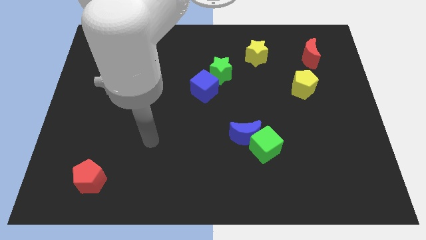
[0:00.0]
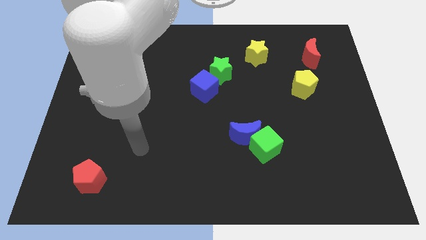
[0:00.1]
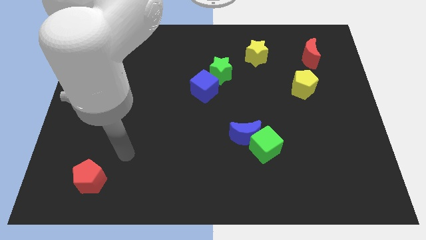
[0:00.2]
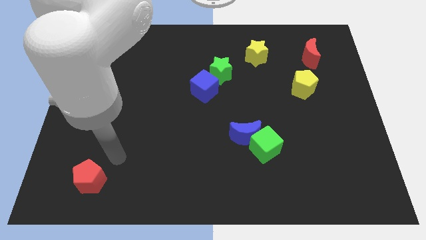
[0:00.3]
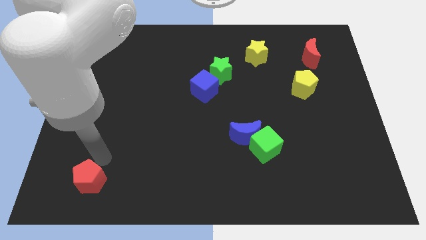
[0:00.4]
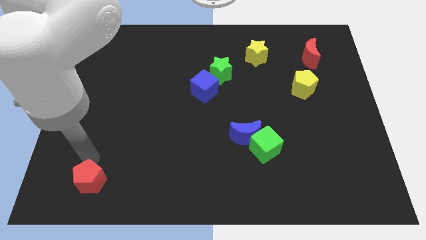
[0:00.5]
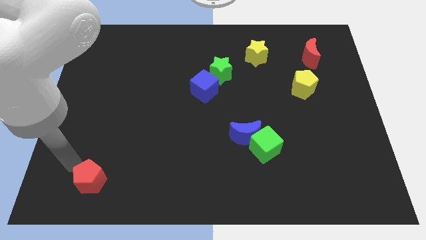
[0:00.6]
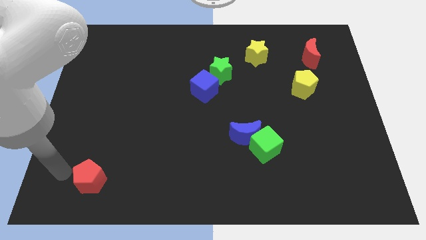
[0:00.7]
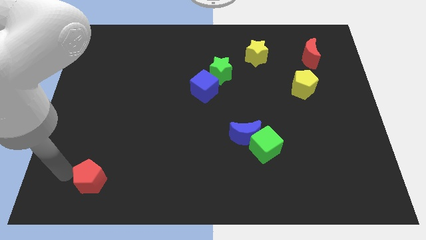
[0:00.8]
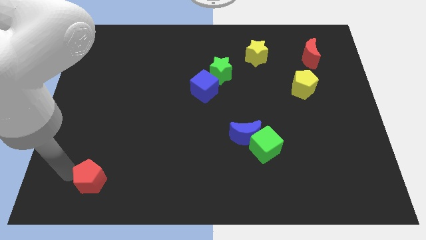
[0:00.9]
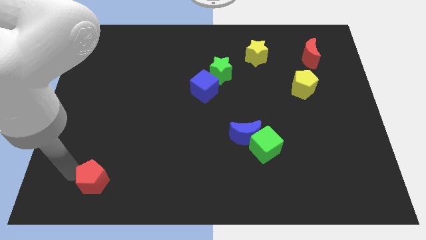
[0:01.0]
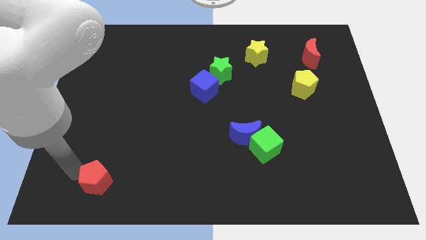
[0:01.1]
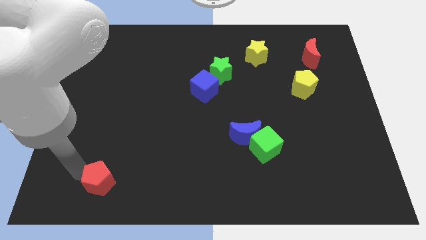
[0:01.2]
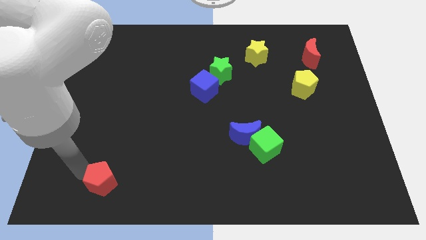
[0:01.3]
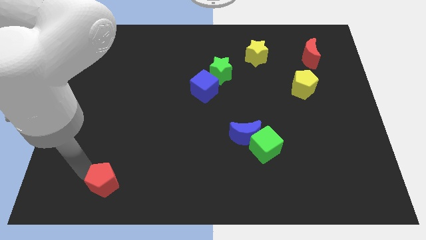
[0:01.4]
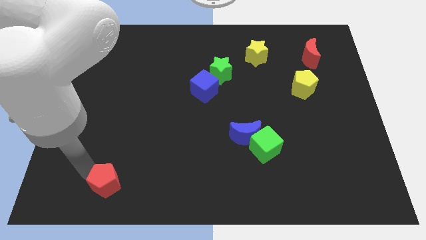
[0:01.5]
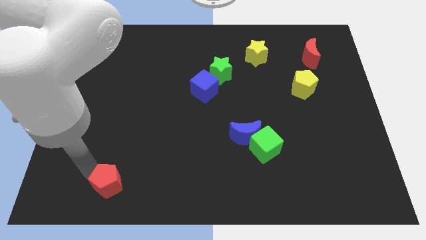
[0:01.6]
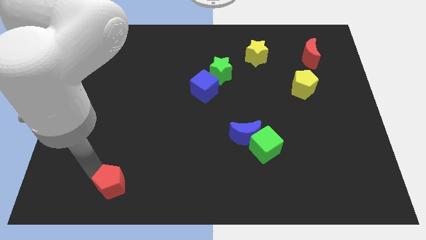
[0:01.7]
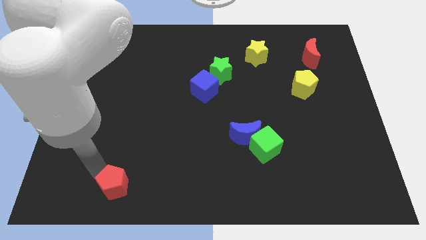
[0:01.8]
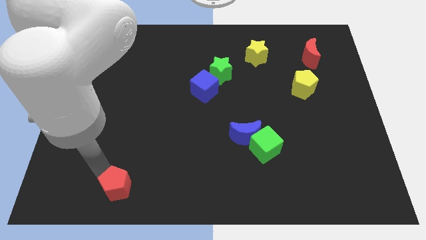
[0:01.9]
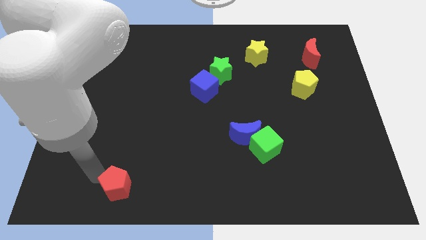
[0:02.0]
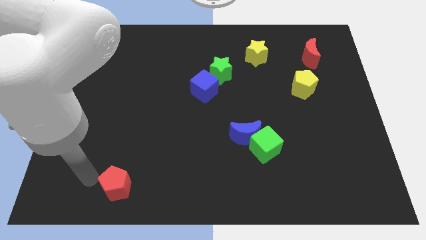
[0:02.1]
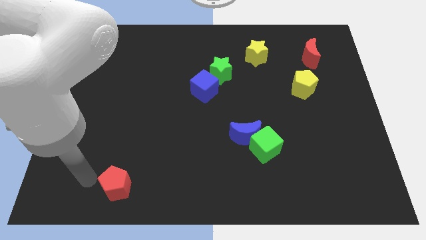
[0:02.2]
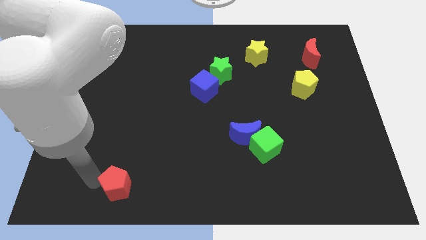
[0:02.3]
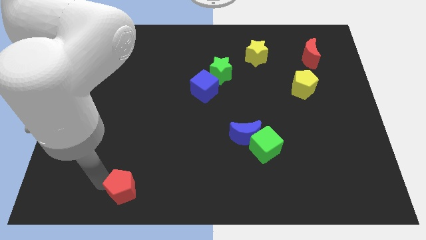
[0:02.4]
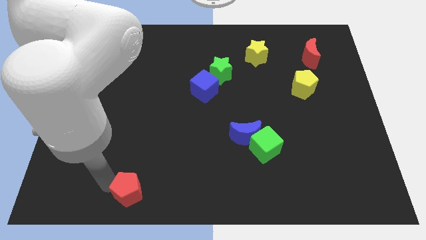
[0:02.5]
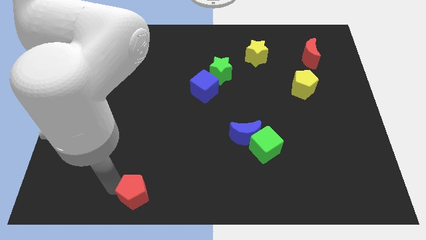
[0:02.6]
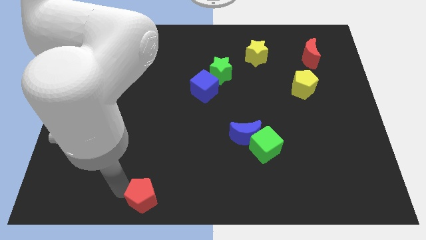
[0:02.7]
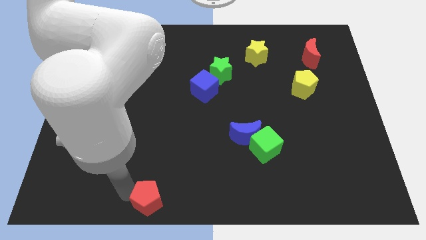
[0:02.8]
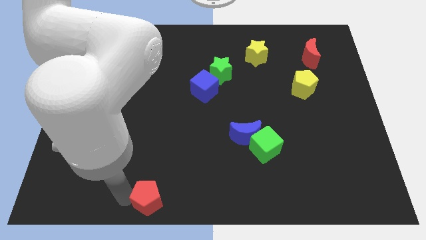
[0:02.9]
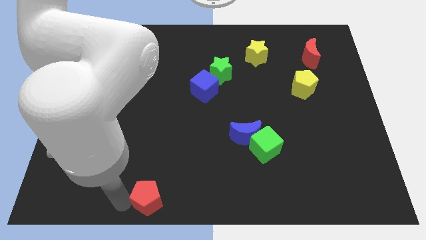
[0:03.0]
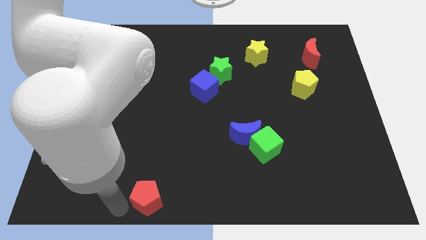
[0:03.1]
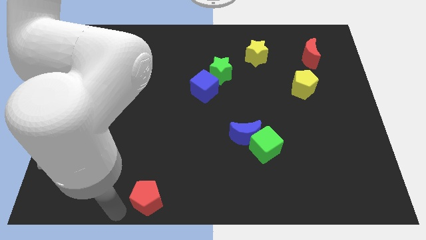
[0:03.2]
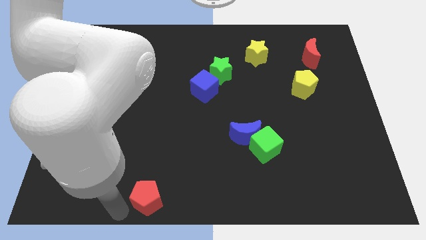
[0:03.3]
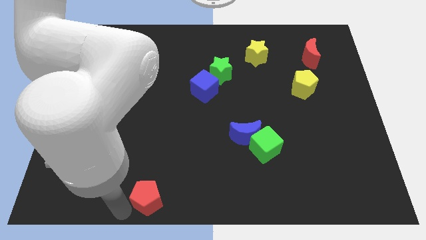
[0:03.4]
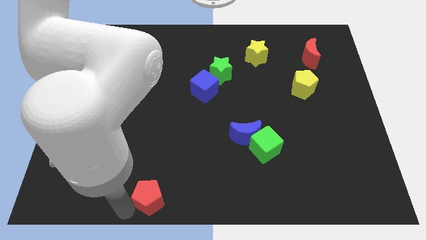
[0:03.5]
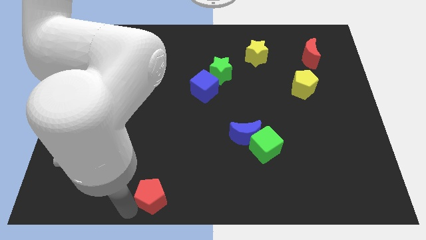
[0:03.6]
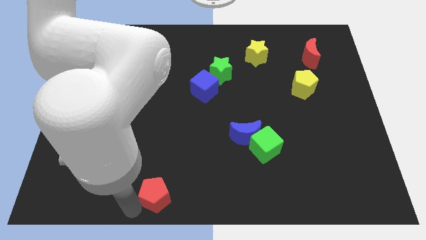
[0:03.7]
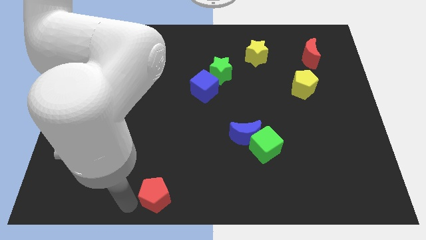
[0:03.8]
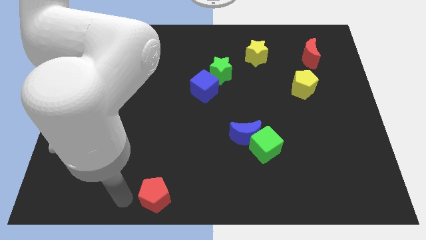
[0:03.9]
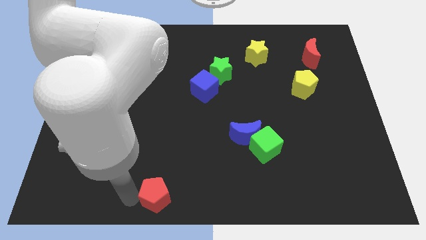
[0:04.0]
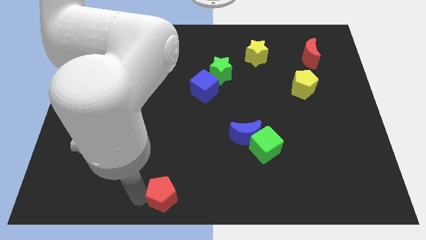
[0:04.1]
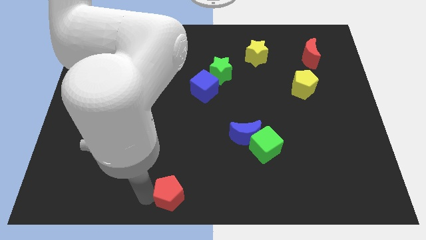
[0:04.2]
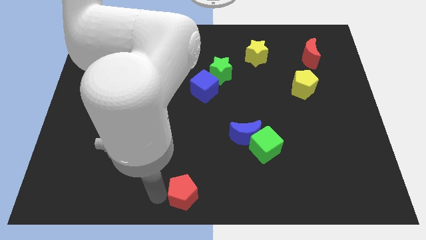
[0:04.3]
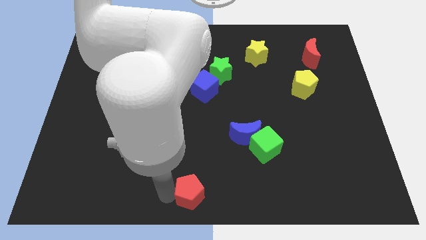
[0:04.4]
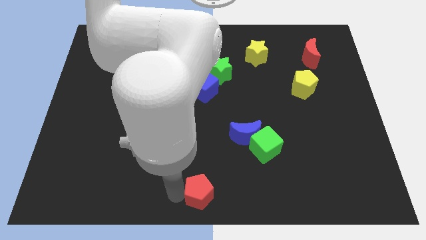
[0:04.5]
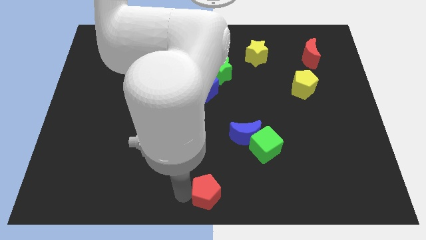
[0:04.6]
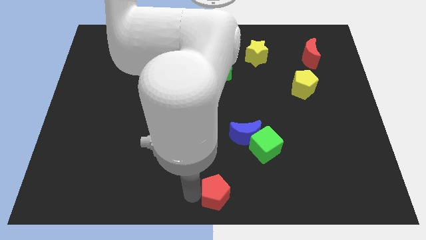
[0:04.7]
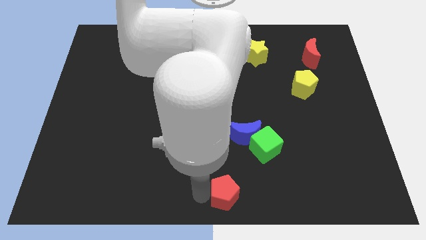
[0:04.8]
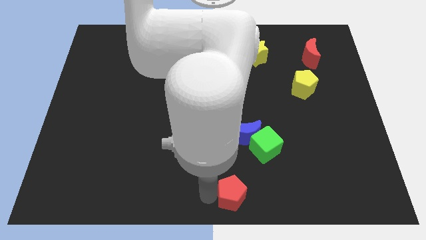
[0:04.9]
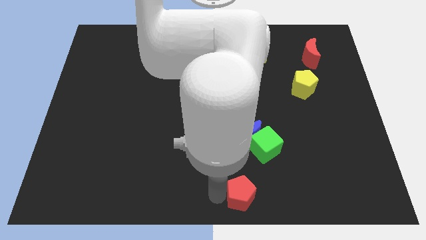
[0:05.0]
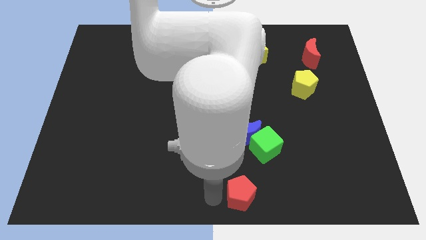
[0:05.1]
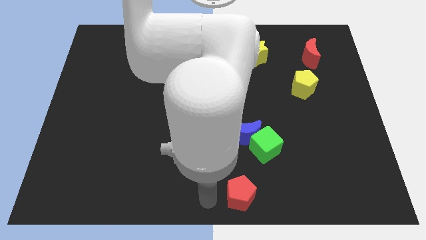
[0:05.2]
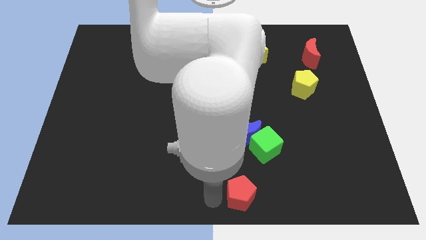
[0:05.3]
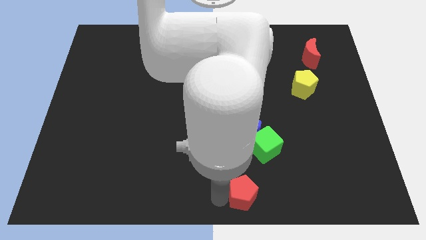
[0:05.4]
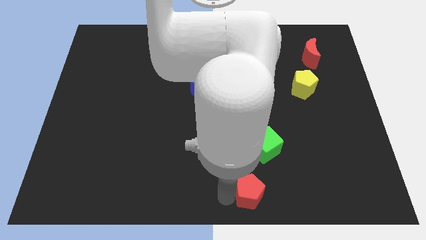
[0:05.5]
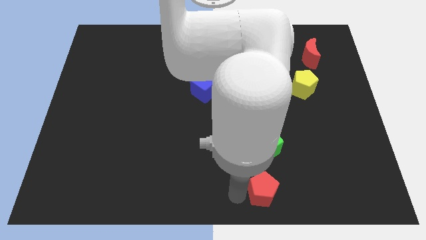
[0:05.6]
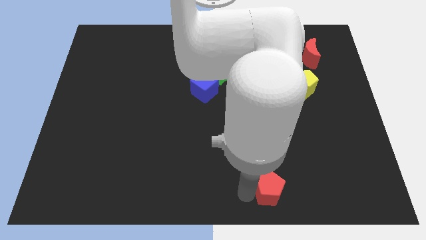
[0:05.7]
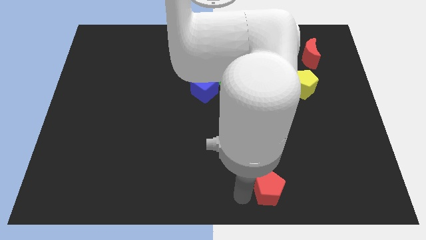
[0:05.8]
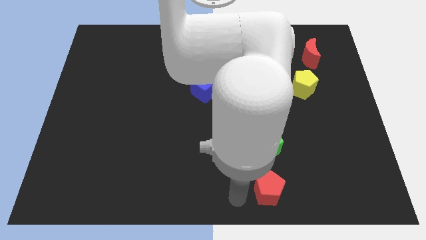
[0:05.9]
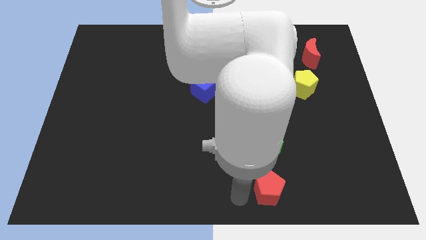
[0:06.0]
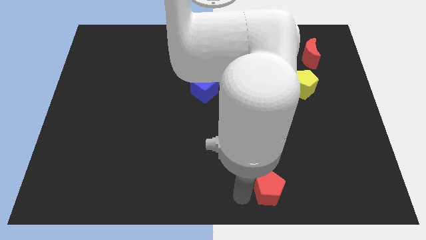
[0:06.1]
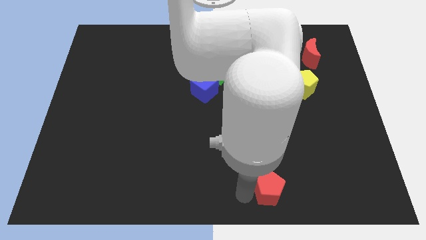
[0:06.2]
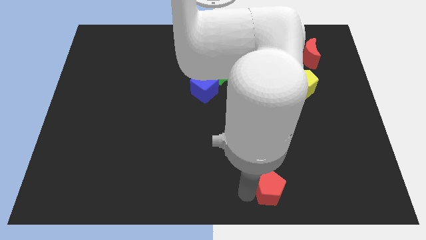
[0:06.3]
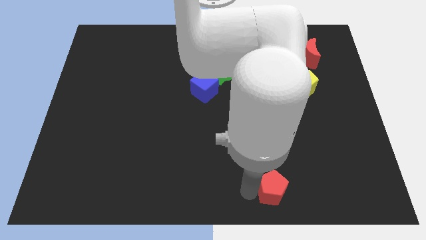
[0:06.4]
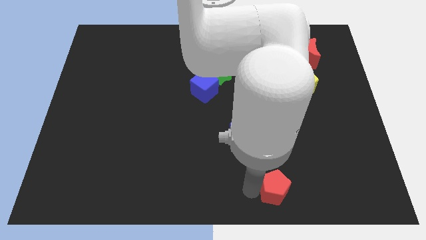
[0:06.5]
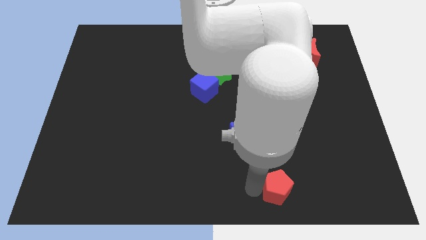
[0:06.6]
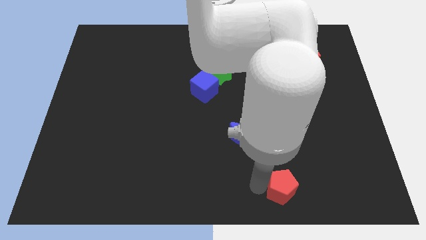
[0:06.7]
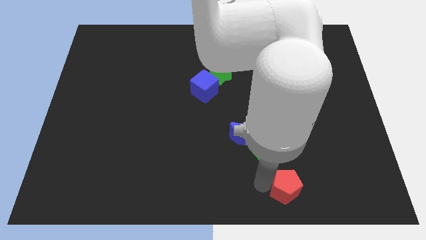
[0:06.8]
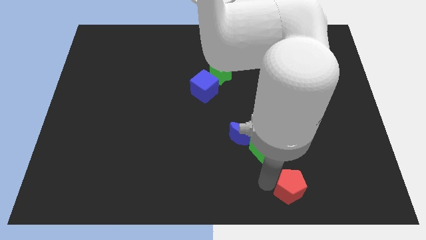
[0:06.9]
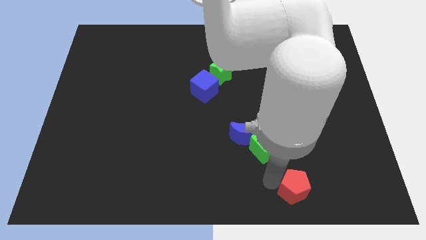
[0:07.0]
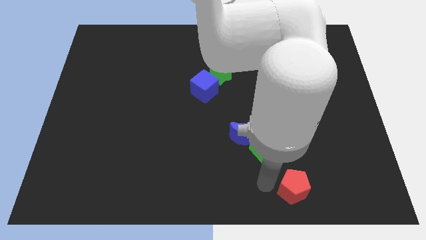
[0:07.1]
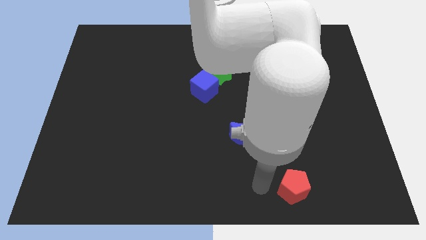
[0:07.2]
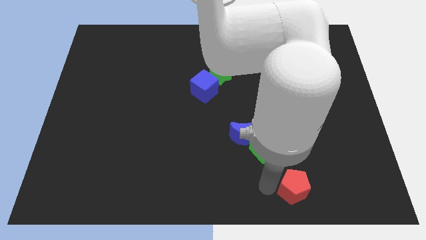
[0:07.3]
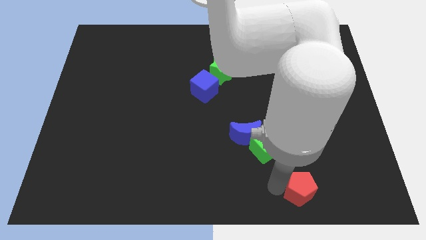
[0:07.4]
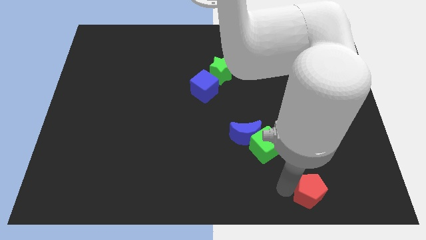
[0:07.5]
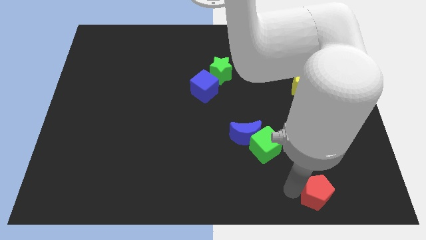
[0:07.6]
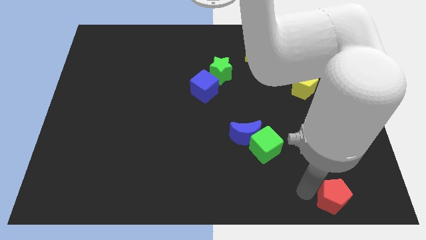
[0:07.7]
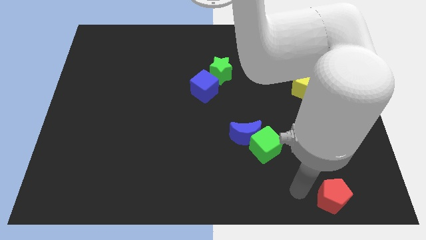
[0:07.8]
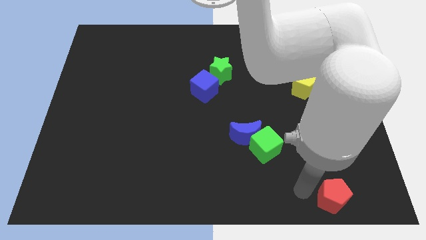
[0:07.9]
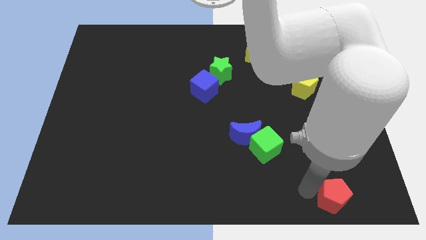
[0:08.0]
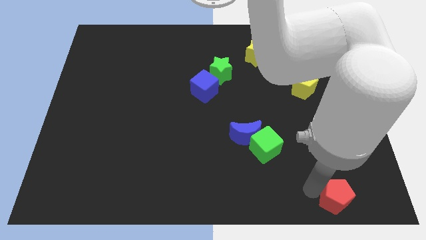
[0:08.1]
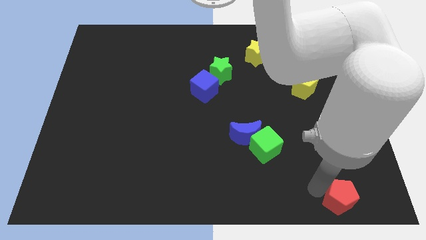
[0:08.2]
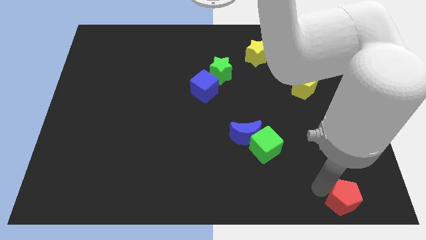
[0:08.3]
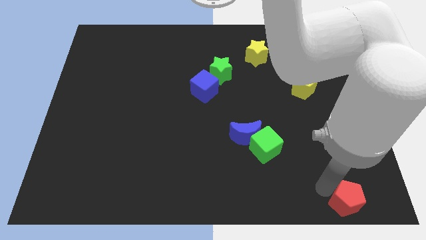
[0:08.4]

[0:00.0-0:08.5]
slide the red pentagon to the bottom right of the board
